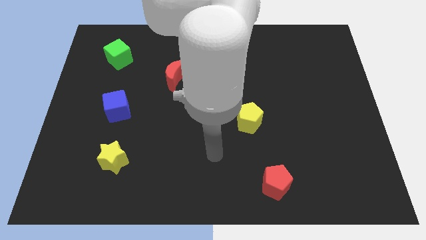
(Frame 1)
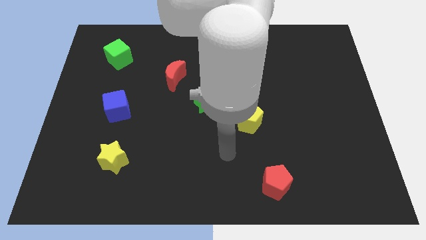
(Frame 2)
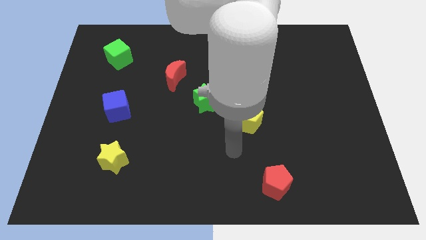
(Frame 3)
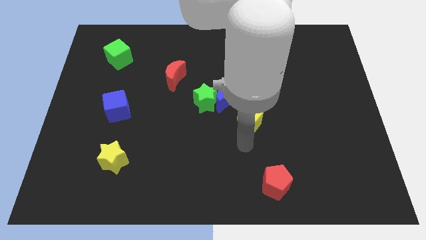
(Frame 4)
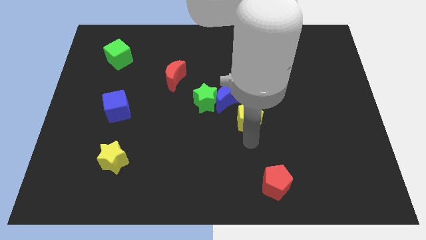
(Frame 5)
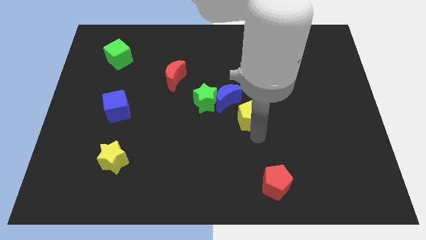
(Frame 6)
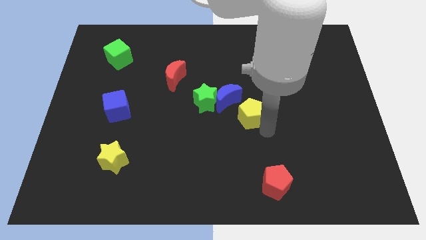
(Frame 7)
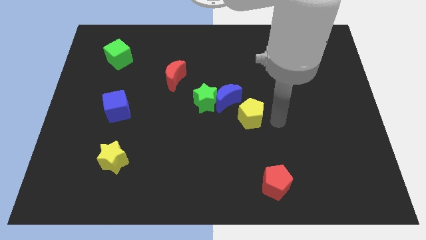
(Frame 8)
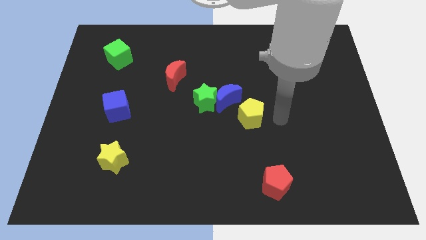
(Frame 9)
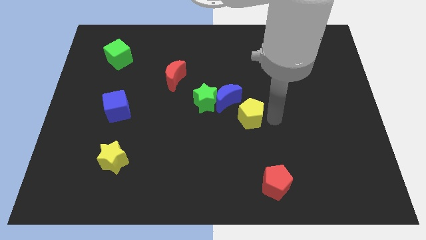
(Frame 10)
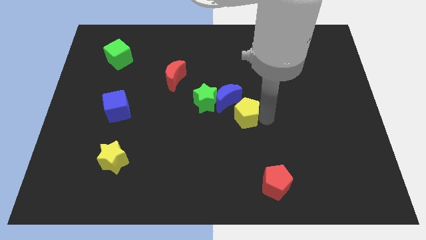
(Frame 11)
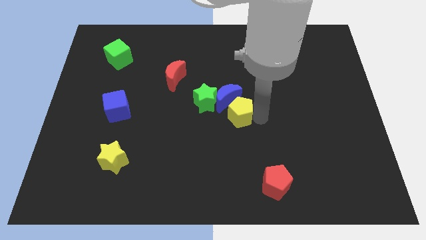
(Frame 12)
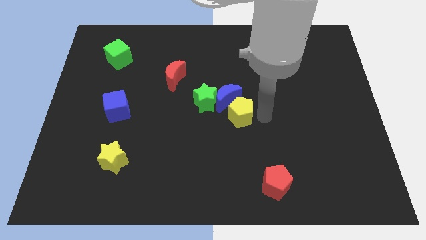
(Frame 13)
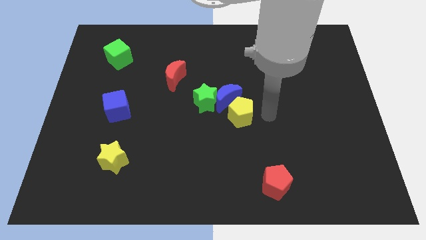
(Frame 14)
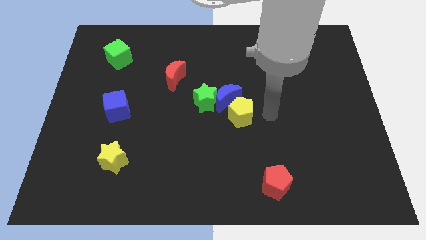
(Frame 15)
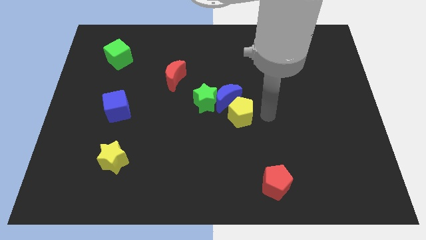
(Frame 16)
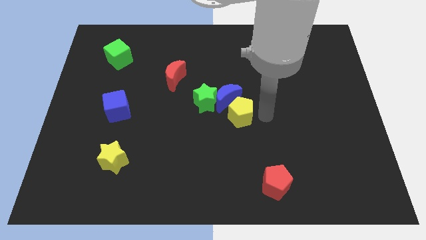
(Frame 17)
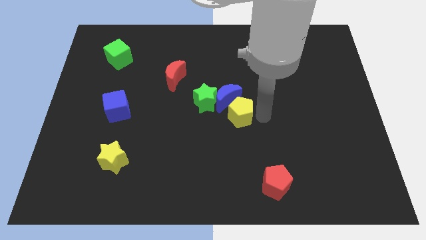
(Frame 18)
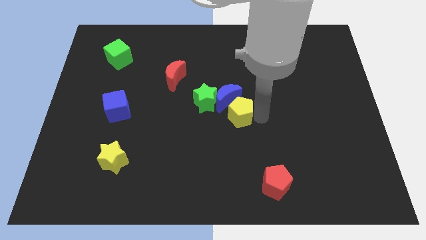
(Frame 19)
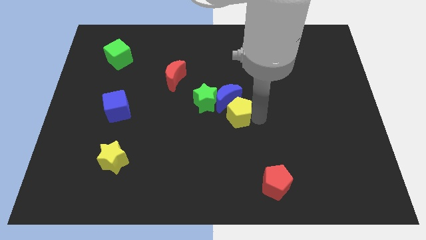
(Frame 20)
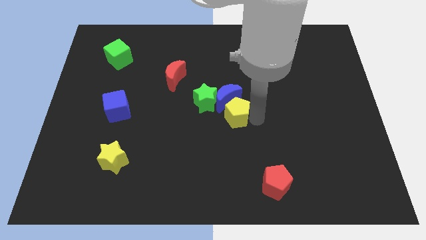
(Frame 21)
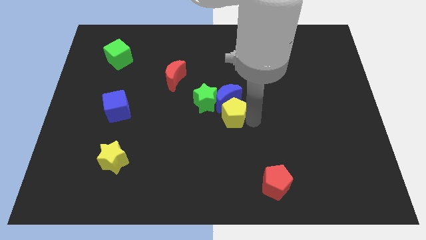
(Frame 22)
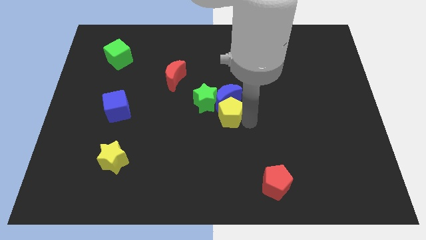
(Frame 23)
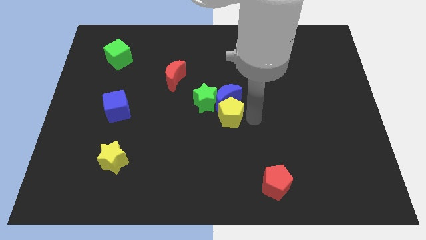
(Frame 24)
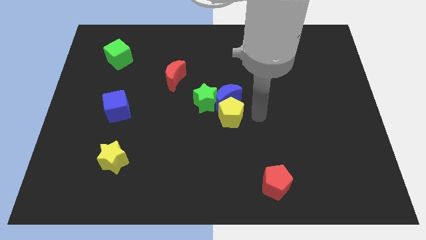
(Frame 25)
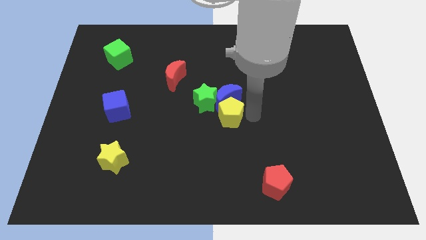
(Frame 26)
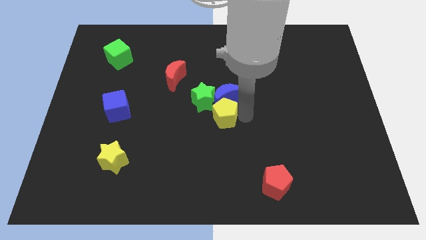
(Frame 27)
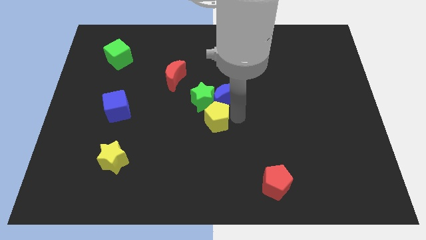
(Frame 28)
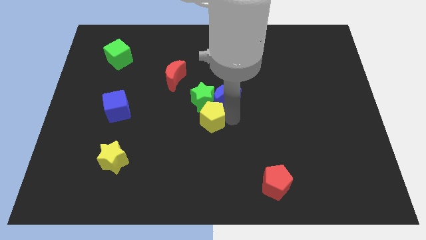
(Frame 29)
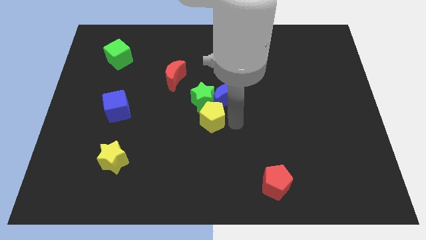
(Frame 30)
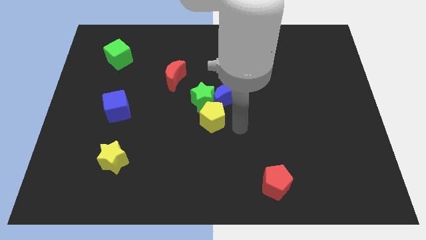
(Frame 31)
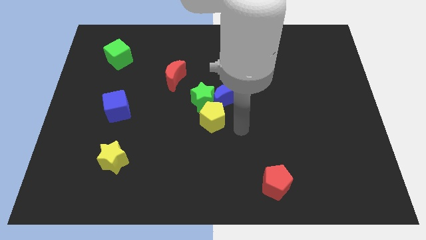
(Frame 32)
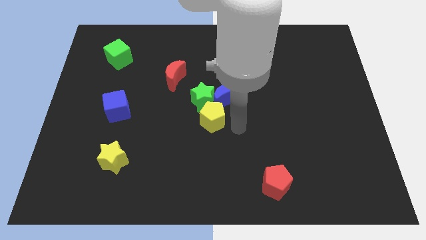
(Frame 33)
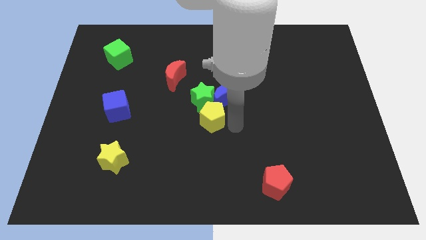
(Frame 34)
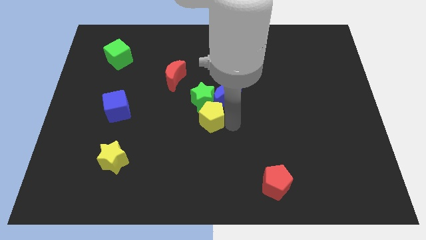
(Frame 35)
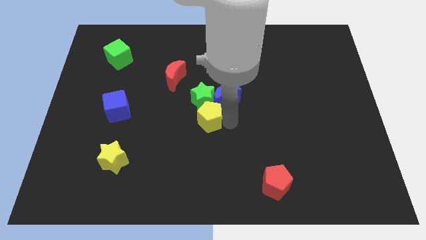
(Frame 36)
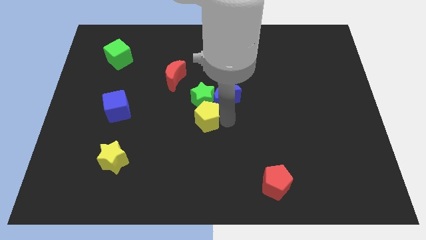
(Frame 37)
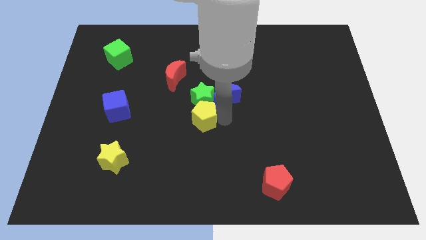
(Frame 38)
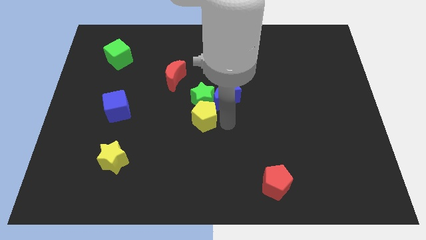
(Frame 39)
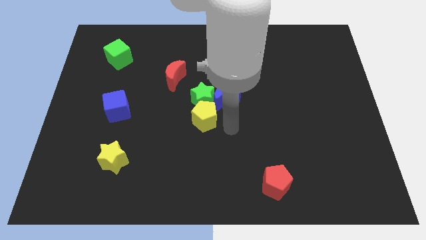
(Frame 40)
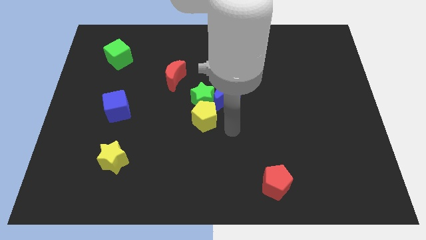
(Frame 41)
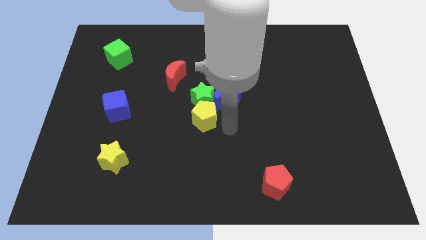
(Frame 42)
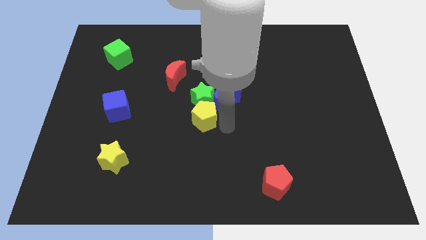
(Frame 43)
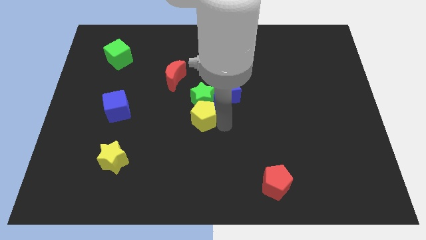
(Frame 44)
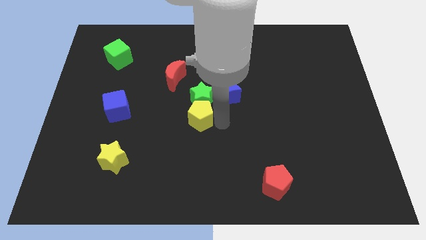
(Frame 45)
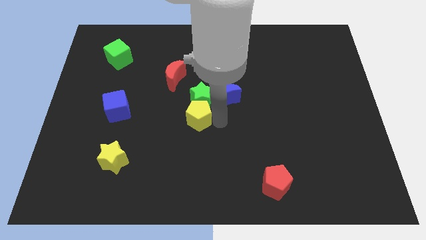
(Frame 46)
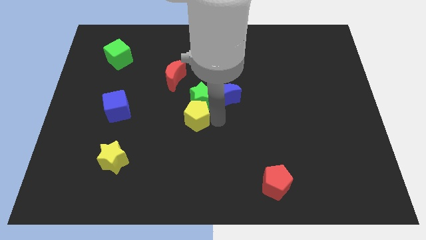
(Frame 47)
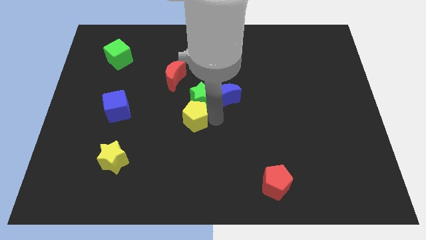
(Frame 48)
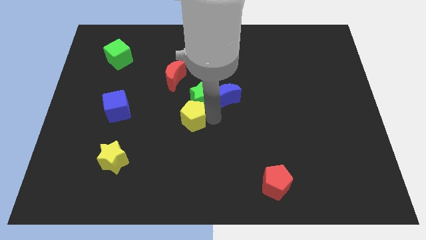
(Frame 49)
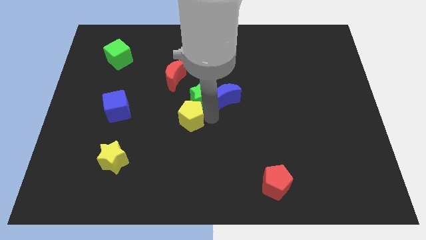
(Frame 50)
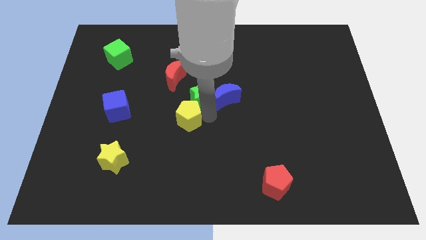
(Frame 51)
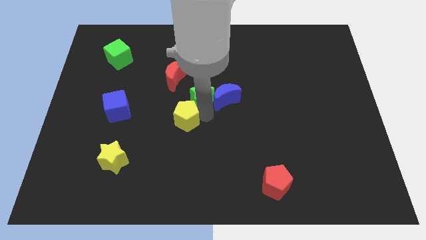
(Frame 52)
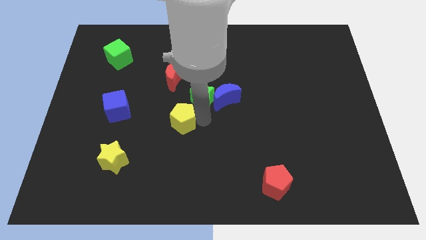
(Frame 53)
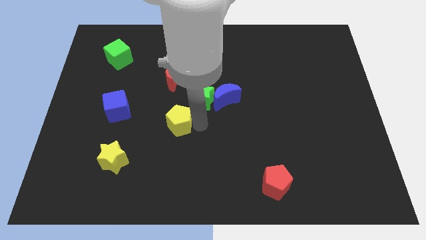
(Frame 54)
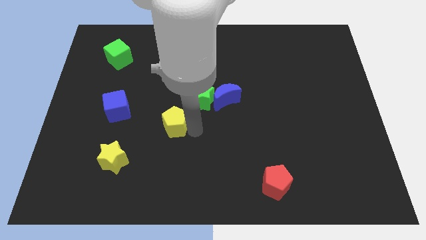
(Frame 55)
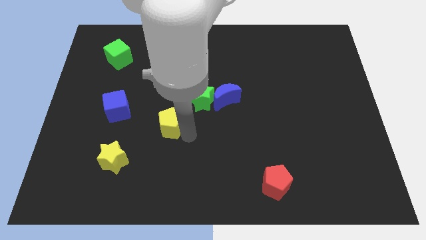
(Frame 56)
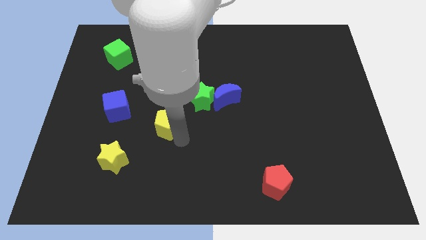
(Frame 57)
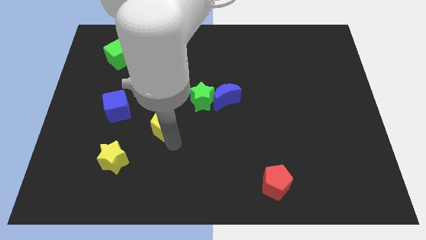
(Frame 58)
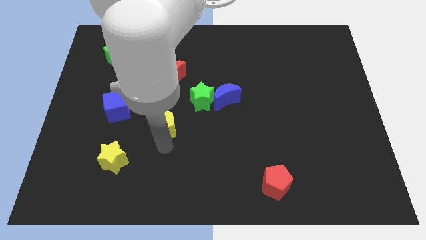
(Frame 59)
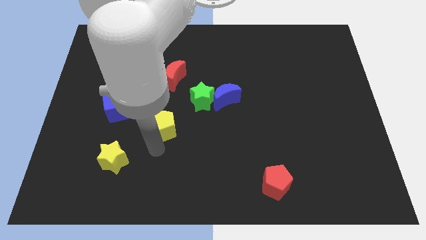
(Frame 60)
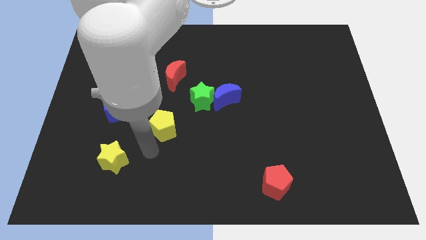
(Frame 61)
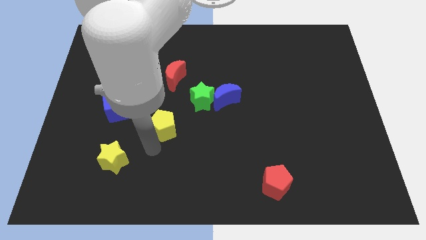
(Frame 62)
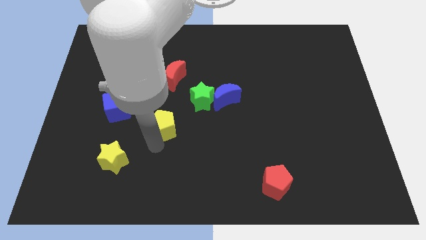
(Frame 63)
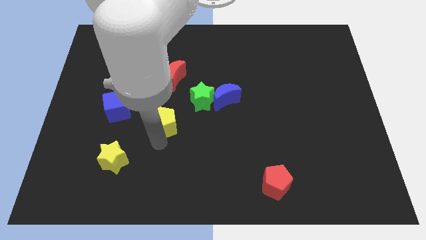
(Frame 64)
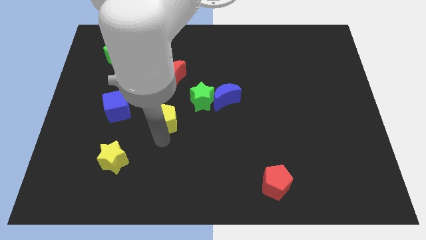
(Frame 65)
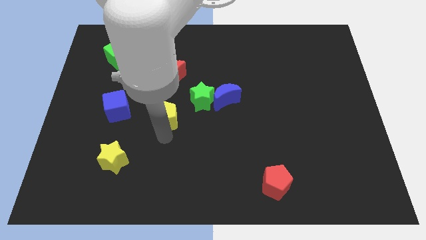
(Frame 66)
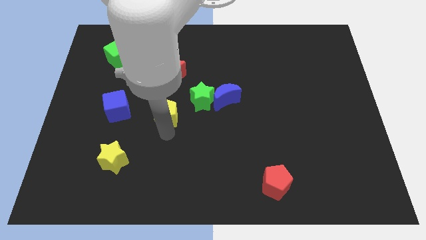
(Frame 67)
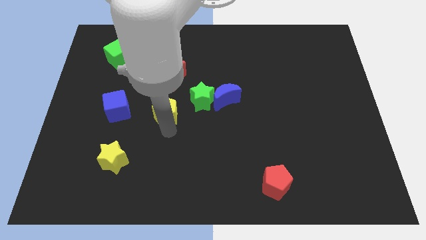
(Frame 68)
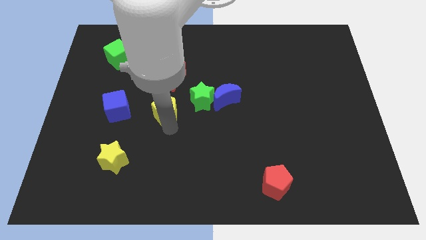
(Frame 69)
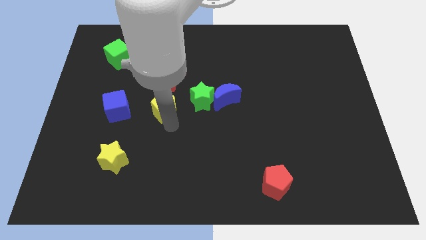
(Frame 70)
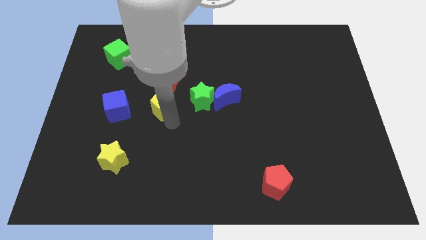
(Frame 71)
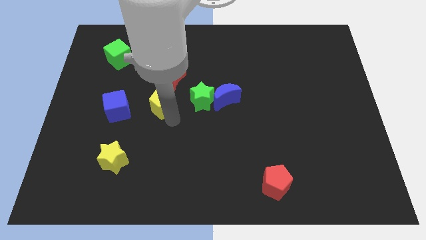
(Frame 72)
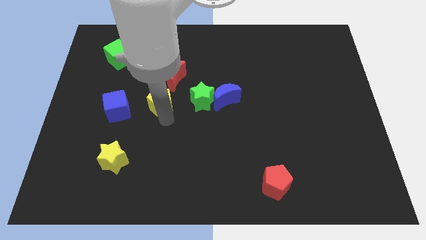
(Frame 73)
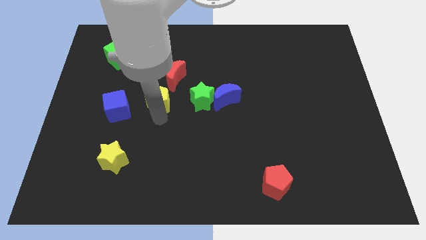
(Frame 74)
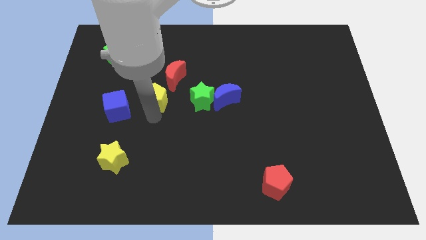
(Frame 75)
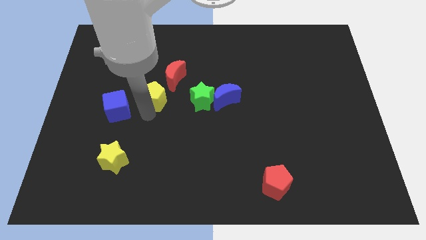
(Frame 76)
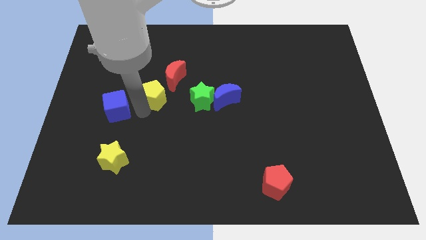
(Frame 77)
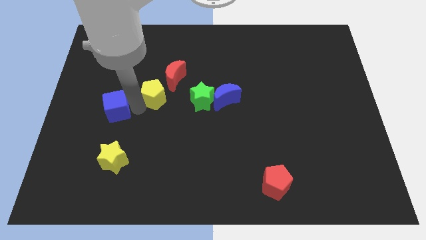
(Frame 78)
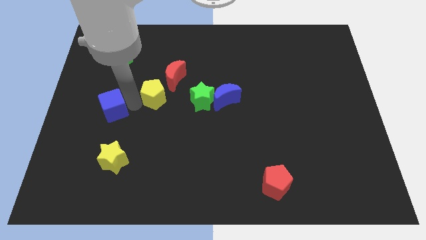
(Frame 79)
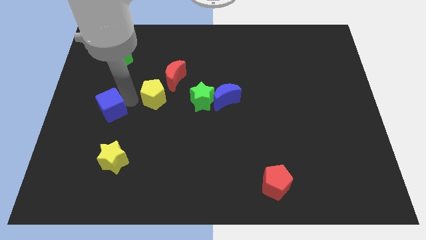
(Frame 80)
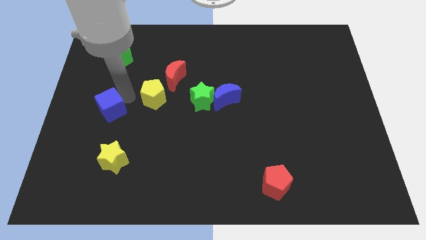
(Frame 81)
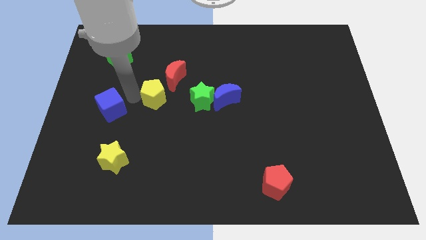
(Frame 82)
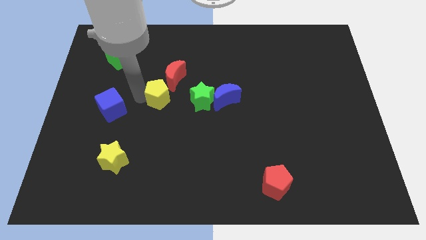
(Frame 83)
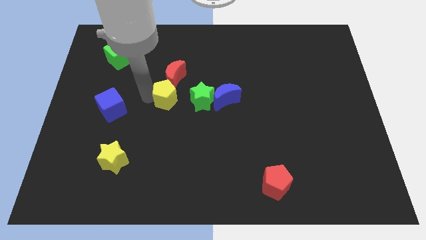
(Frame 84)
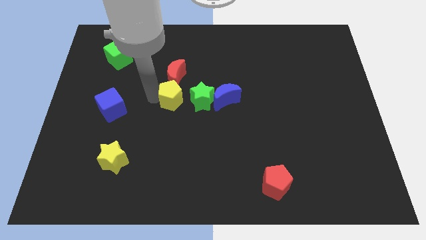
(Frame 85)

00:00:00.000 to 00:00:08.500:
push the yellow pentagon diagonally up and to the left of the green star
